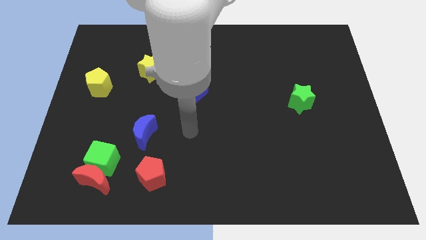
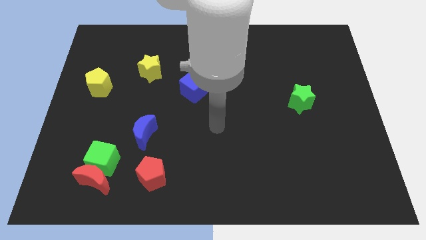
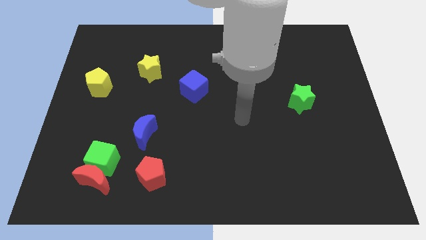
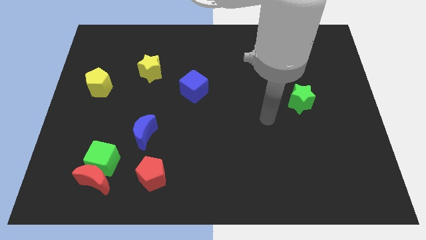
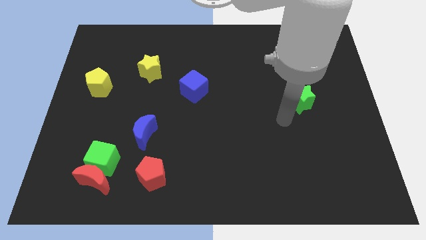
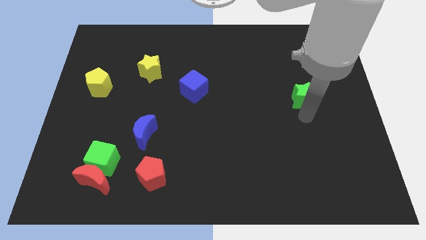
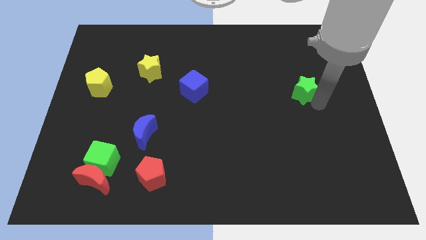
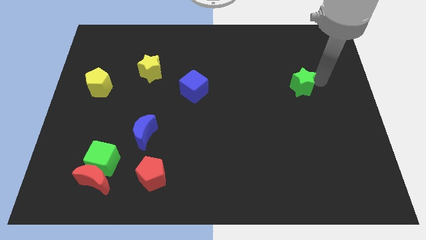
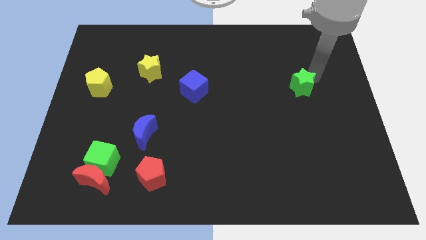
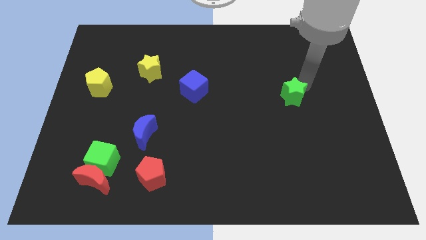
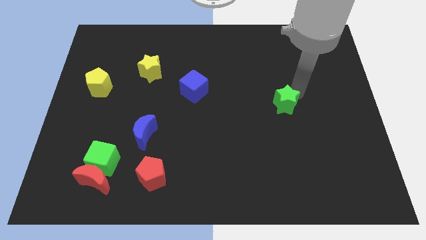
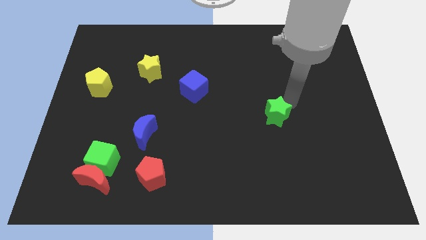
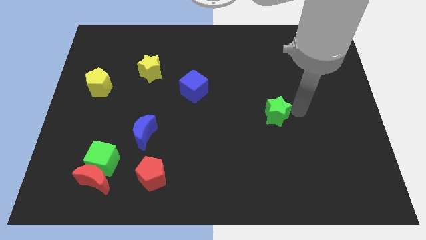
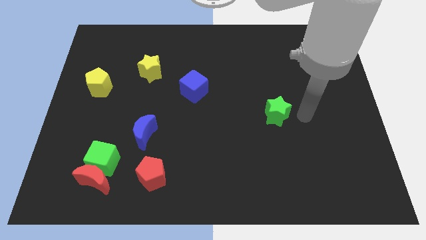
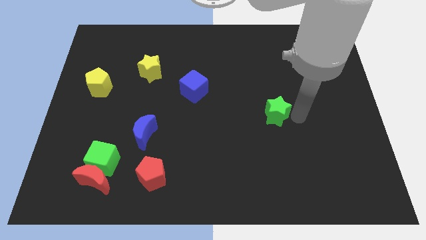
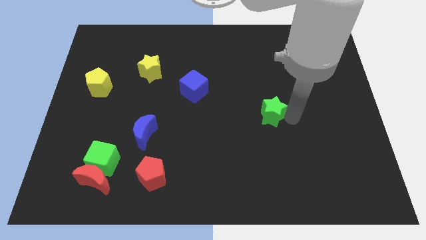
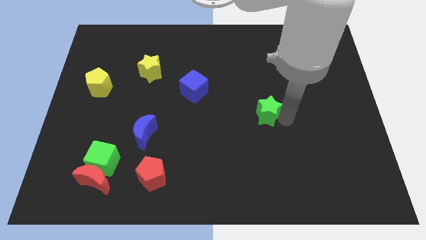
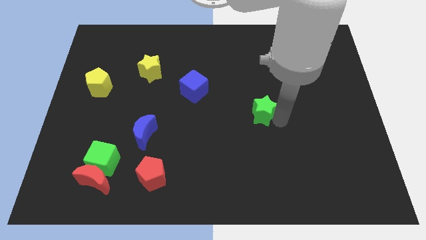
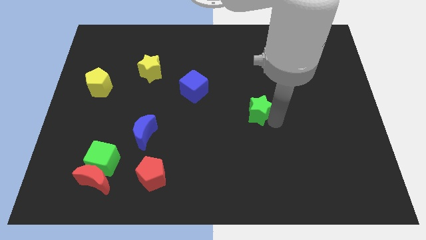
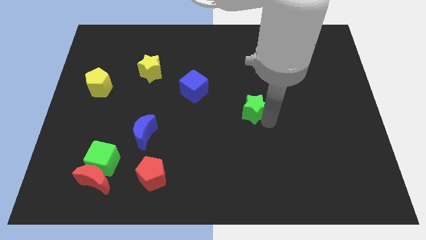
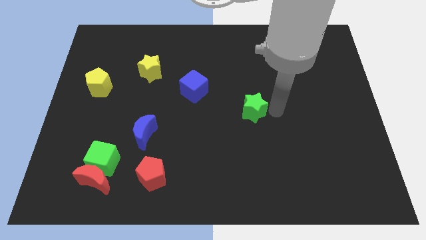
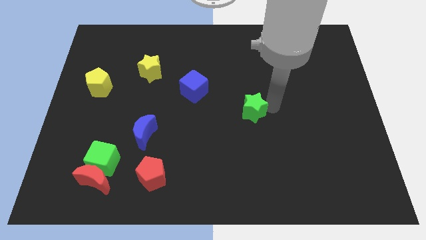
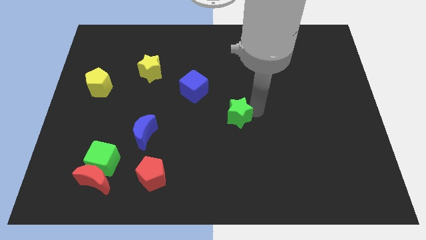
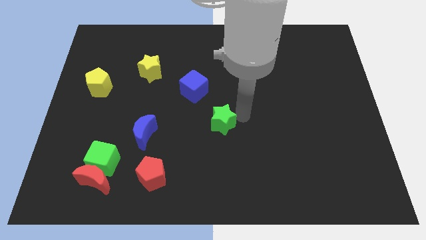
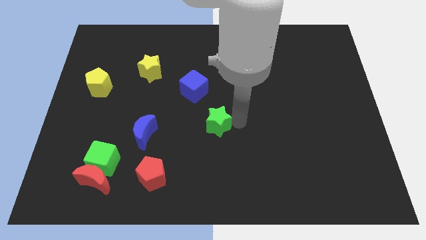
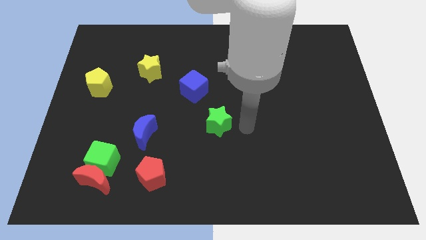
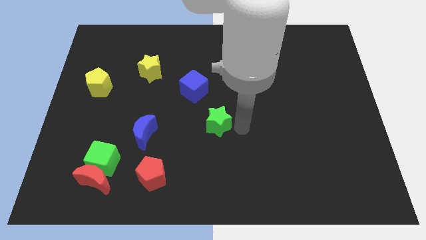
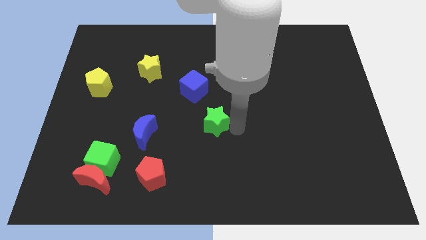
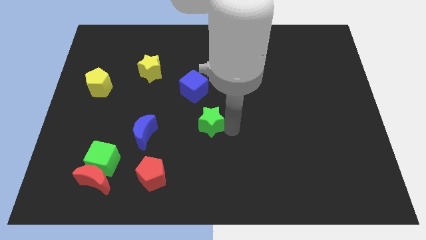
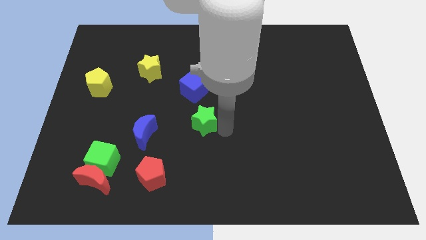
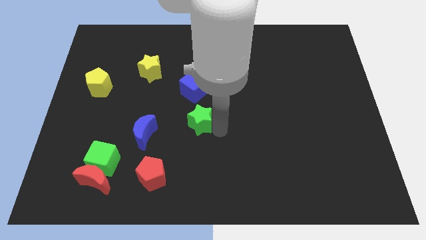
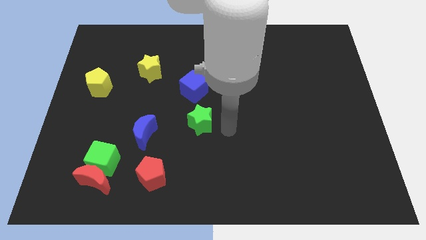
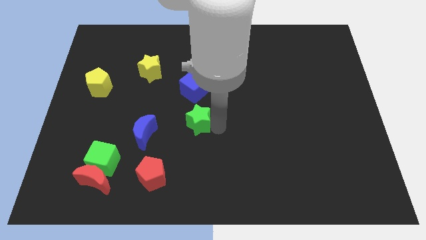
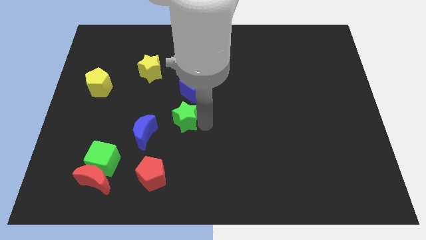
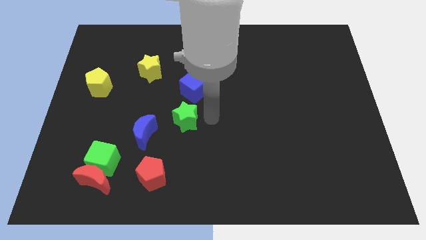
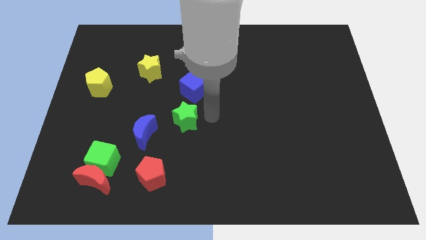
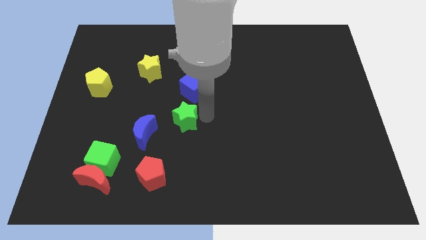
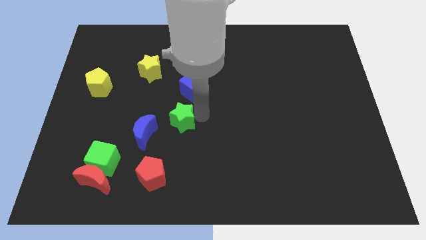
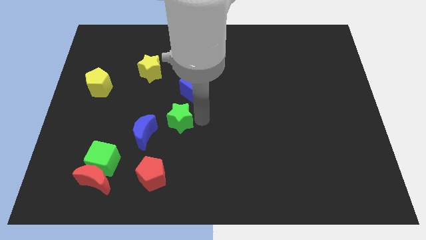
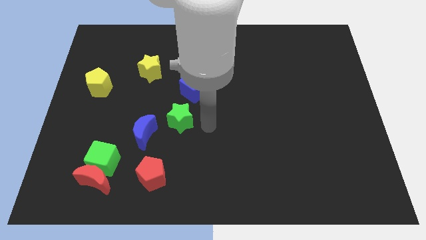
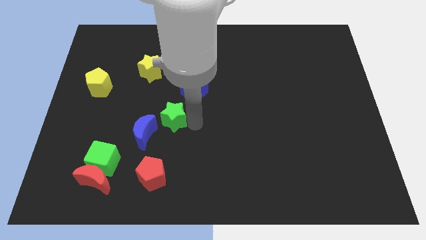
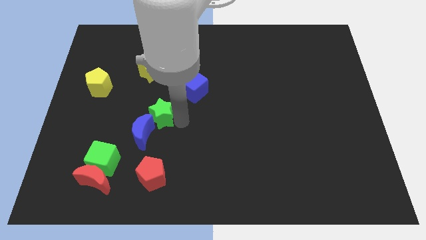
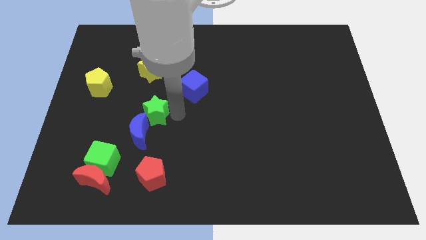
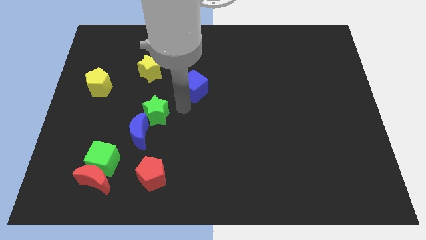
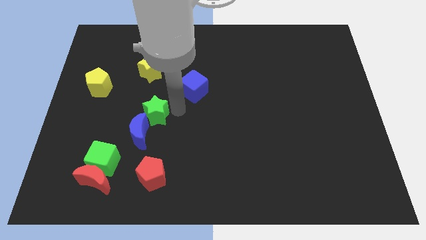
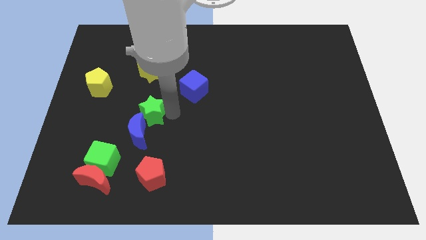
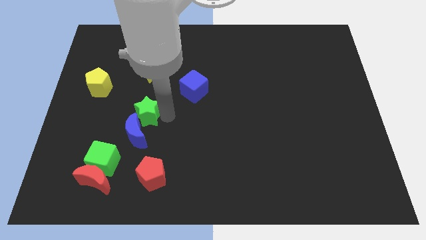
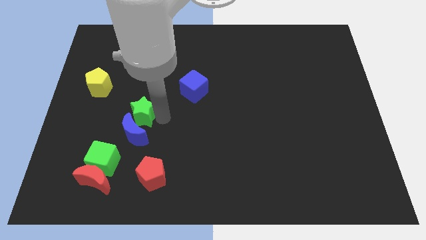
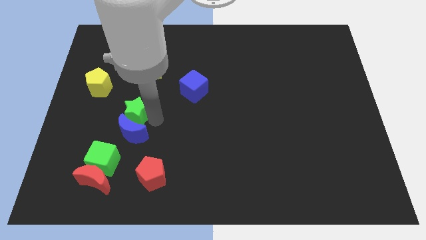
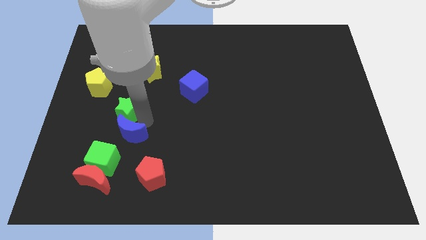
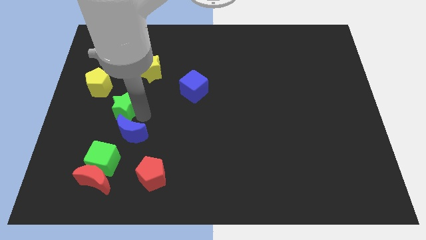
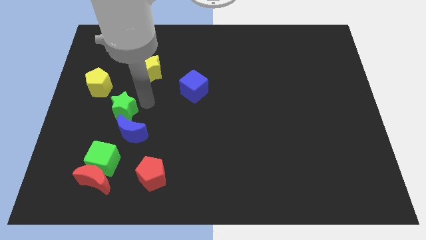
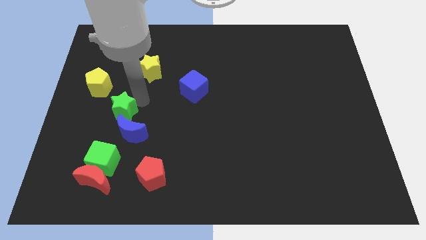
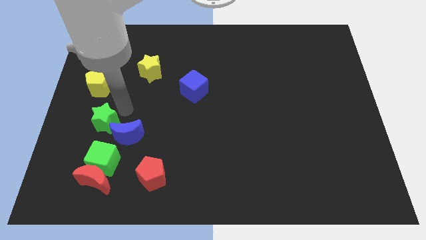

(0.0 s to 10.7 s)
move the green star to the left of the blue moon

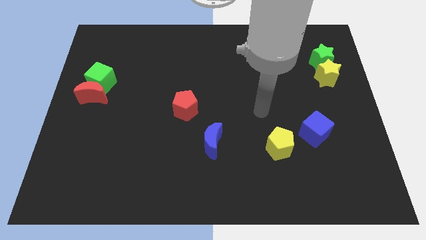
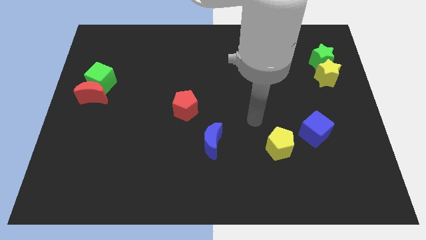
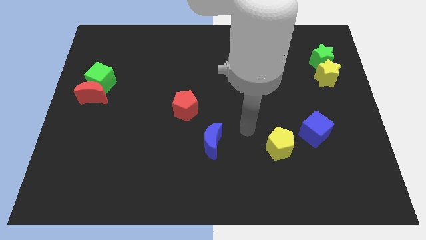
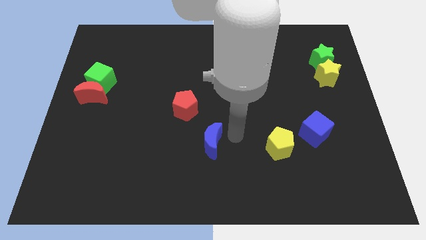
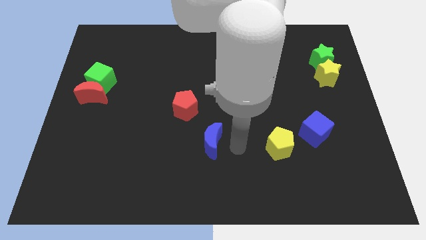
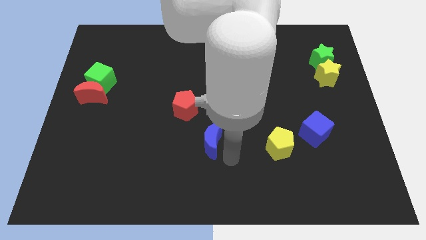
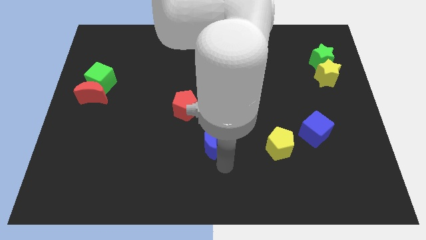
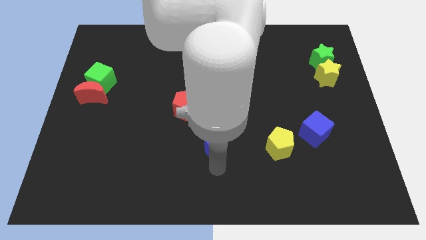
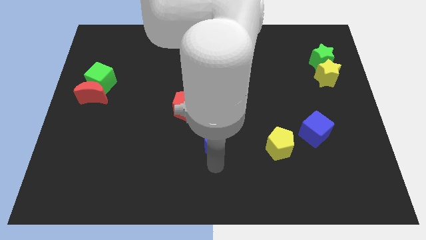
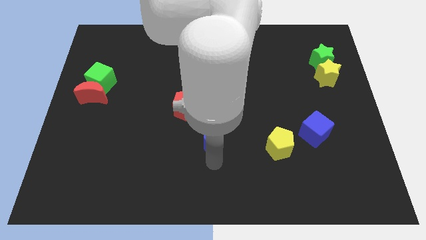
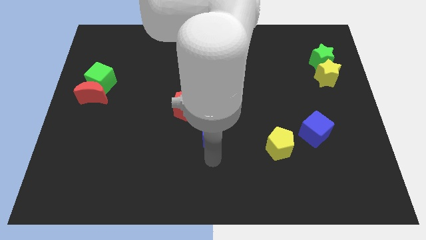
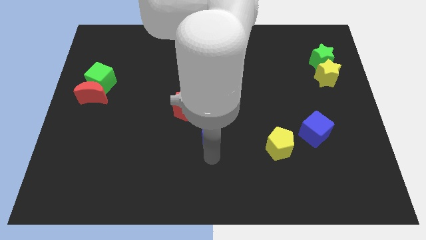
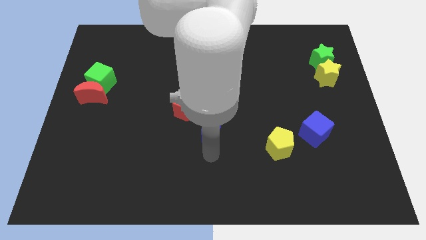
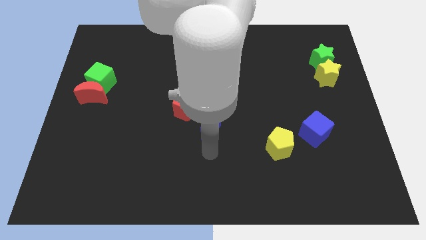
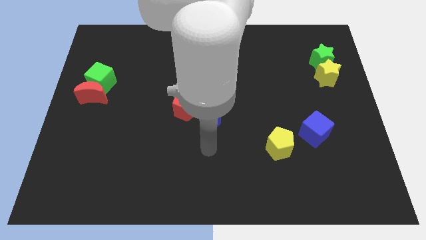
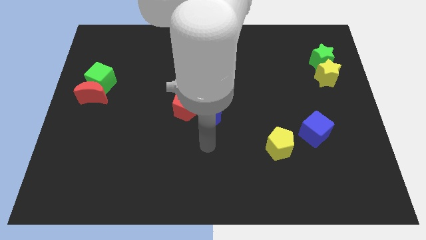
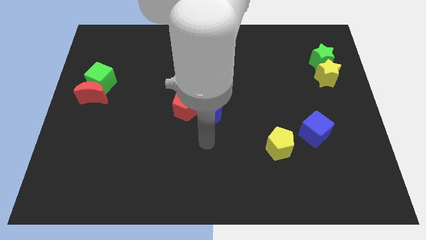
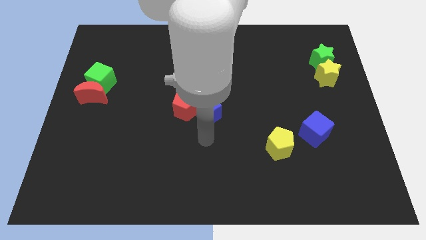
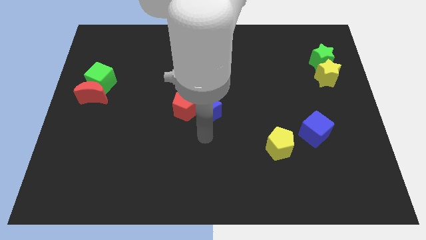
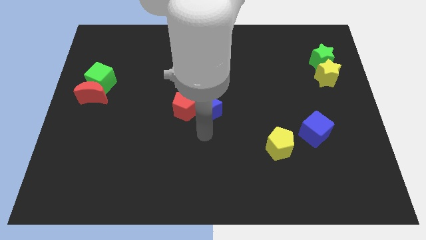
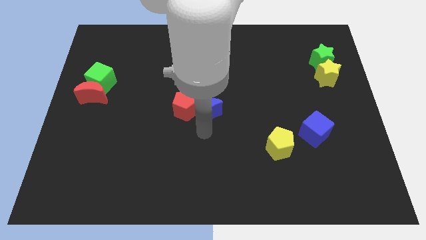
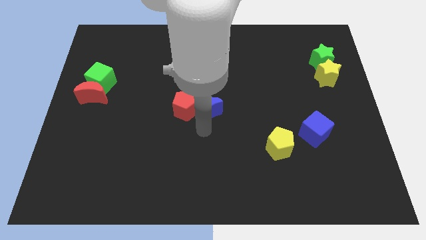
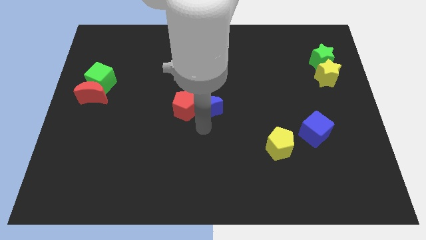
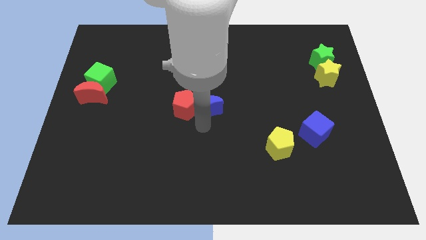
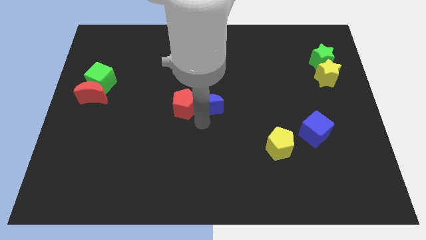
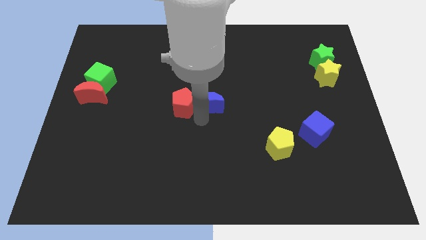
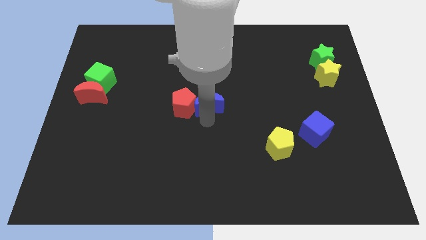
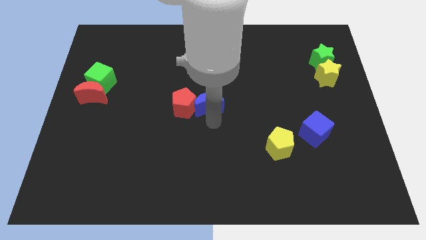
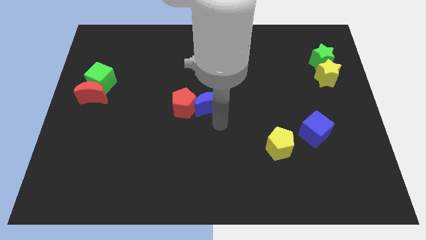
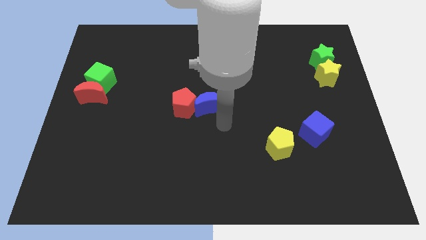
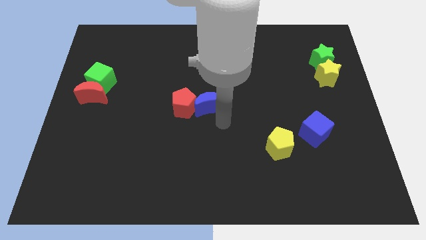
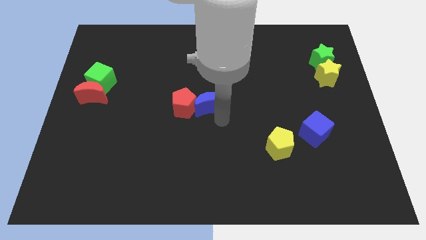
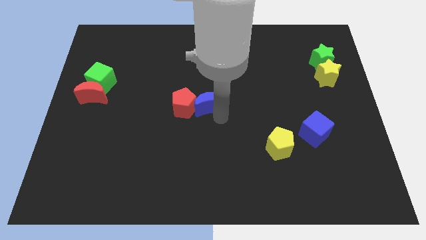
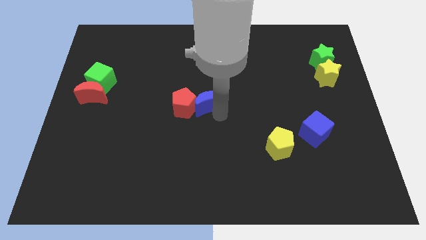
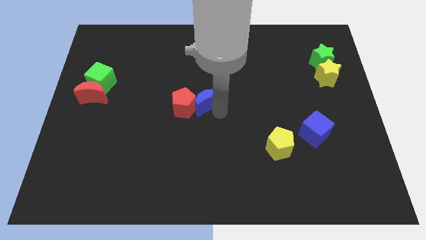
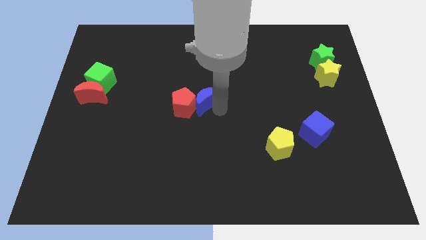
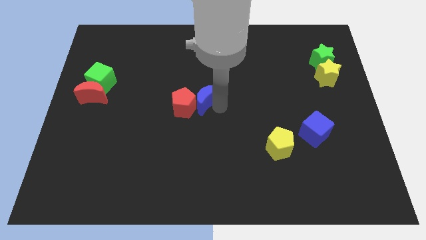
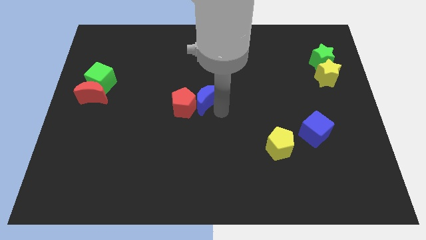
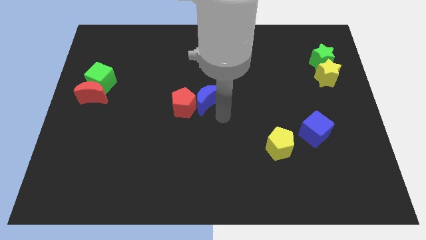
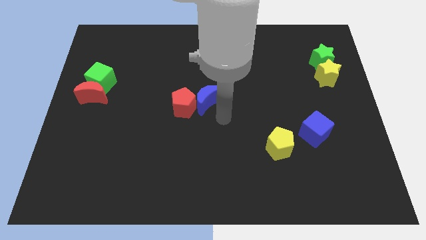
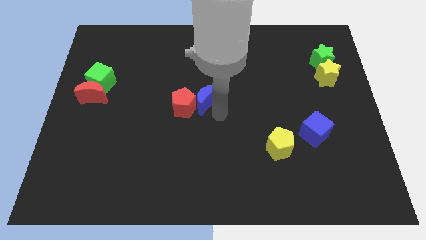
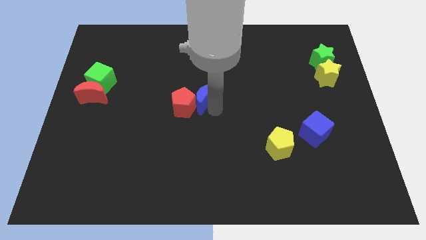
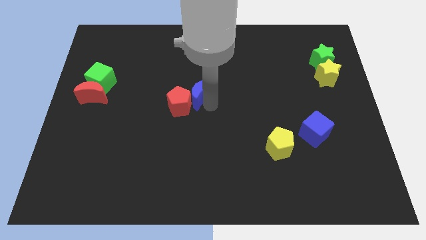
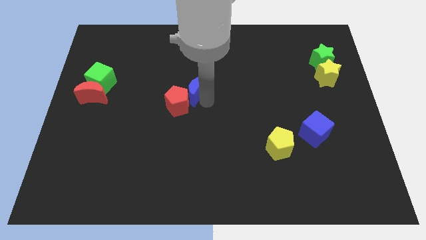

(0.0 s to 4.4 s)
slide the blue moon to the top of the red pentagon
